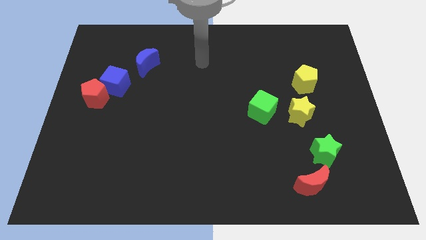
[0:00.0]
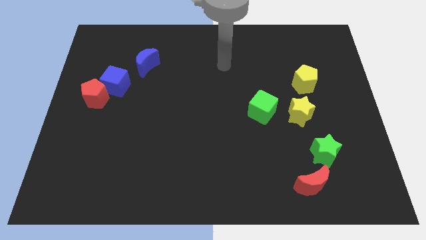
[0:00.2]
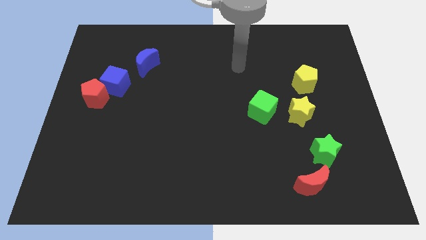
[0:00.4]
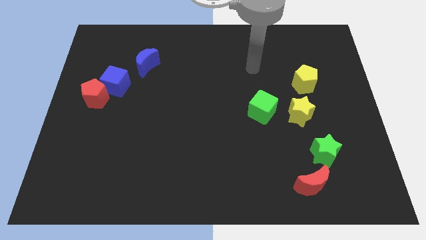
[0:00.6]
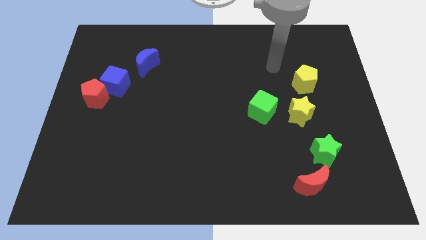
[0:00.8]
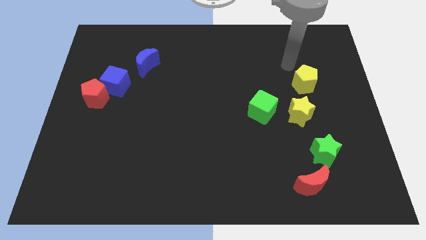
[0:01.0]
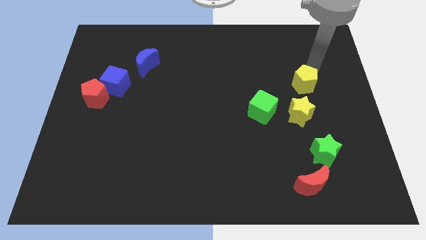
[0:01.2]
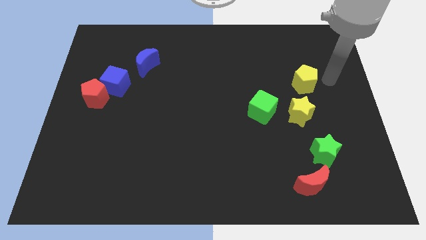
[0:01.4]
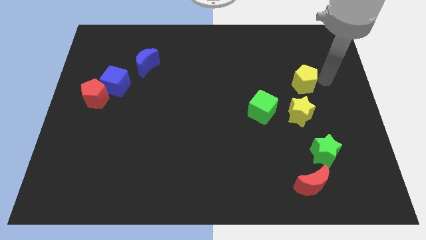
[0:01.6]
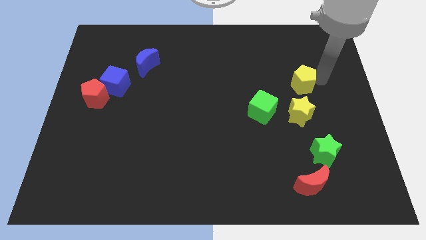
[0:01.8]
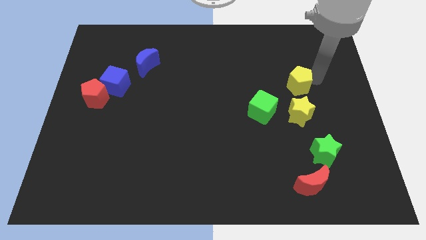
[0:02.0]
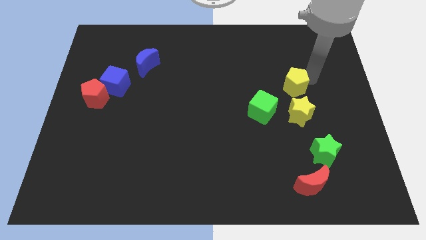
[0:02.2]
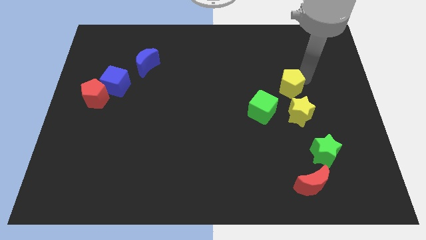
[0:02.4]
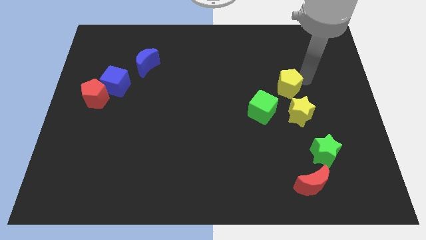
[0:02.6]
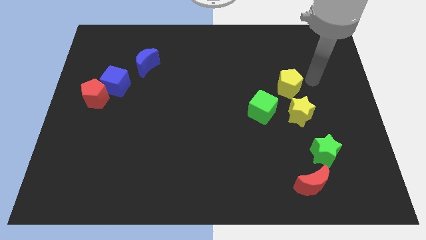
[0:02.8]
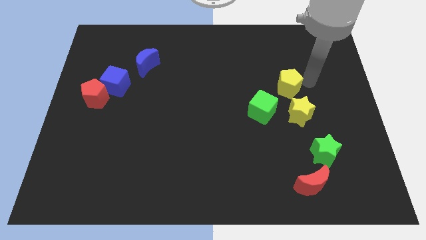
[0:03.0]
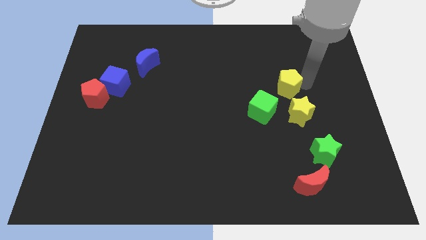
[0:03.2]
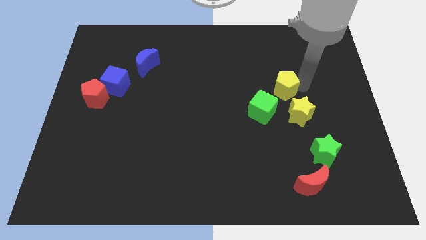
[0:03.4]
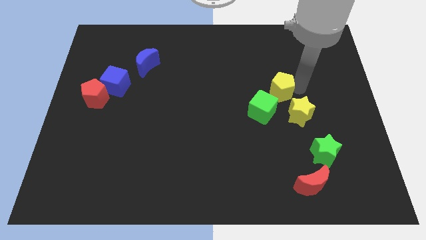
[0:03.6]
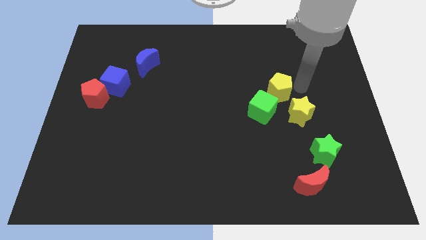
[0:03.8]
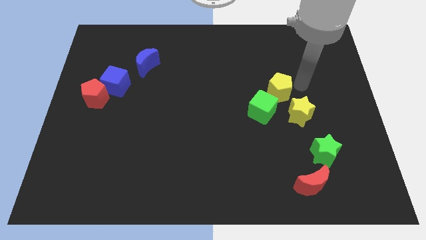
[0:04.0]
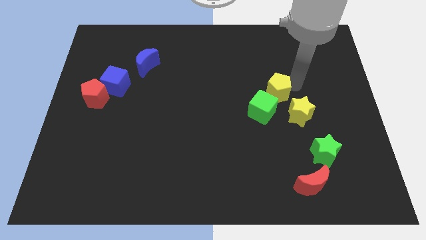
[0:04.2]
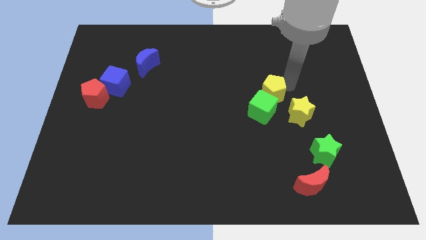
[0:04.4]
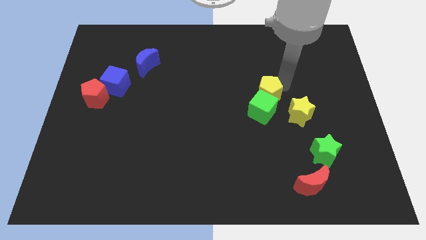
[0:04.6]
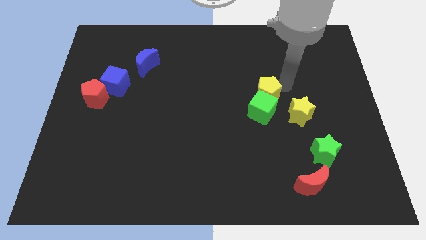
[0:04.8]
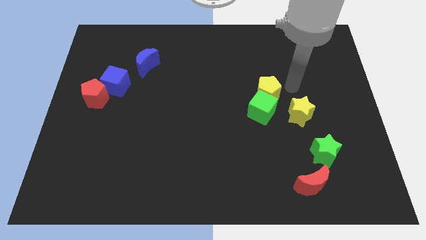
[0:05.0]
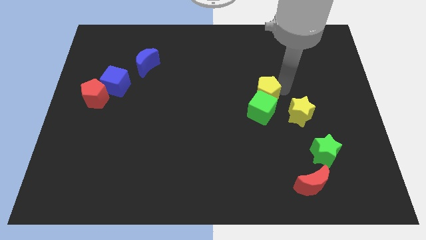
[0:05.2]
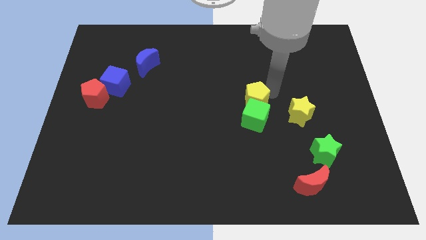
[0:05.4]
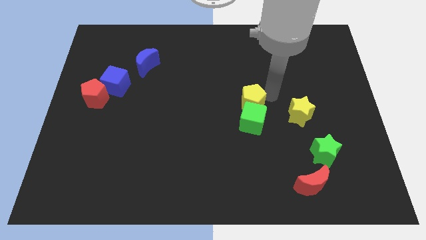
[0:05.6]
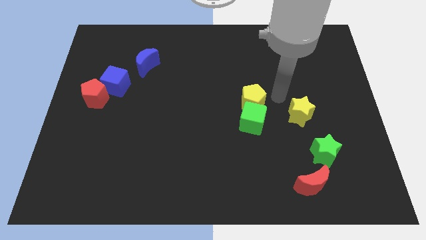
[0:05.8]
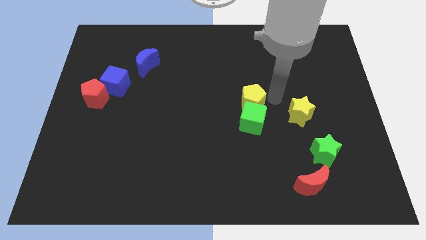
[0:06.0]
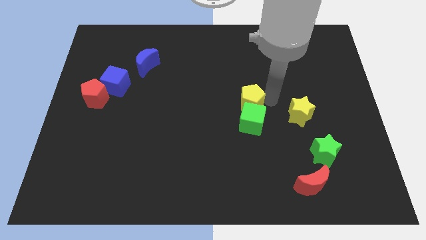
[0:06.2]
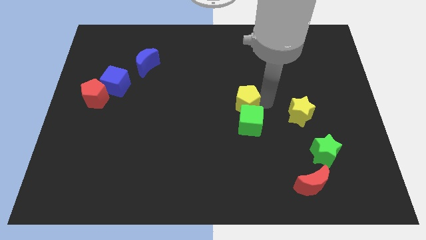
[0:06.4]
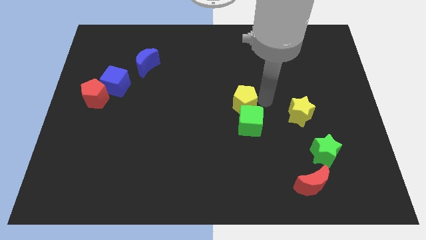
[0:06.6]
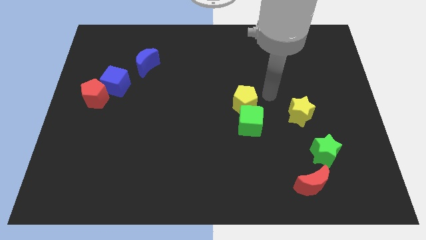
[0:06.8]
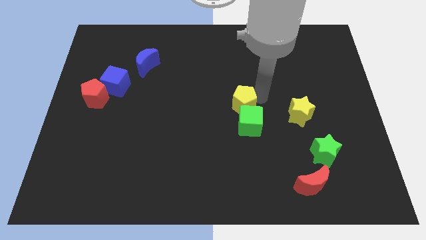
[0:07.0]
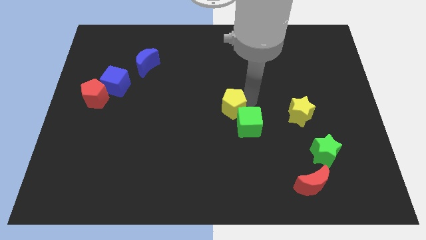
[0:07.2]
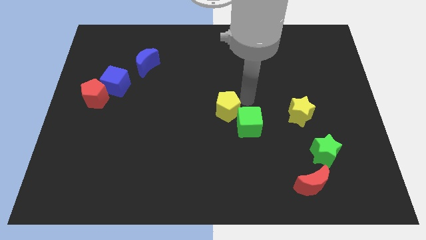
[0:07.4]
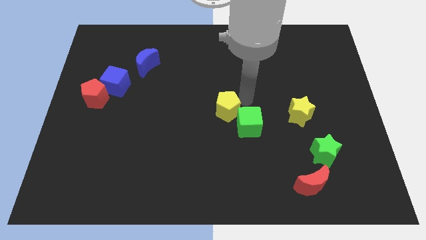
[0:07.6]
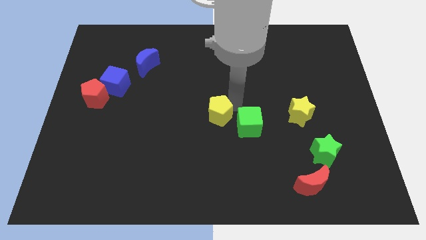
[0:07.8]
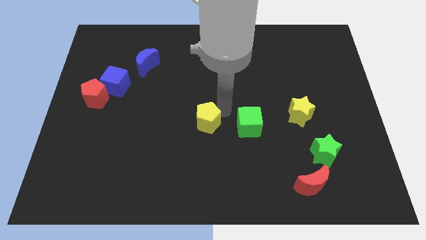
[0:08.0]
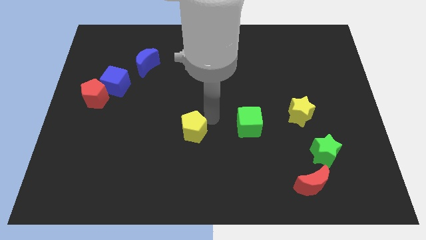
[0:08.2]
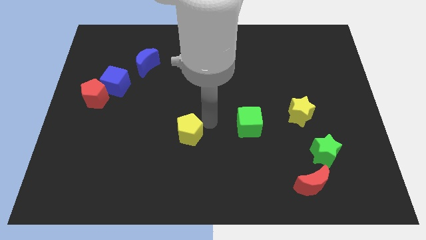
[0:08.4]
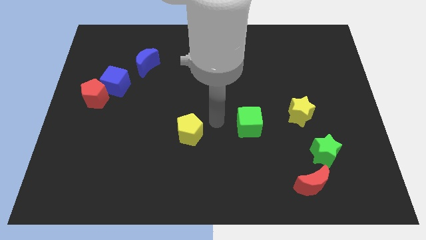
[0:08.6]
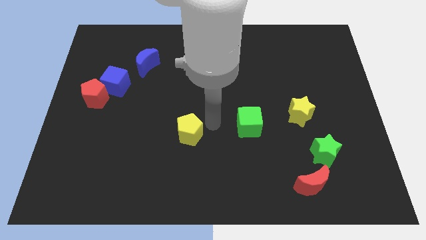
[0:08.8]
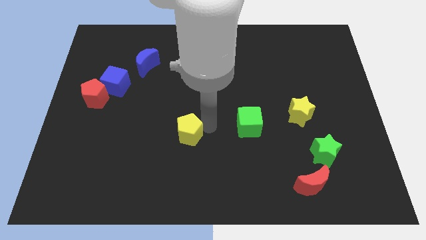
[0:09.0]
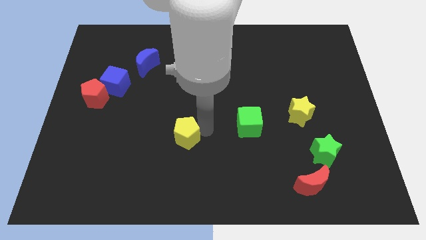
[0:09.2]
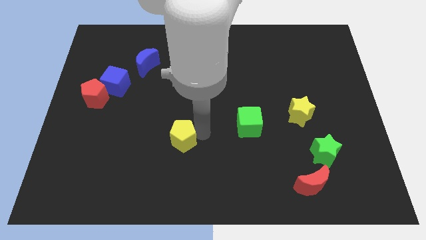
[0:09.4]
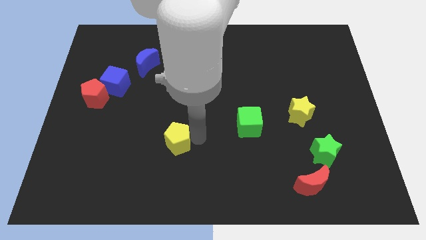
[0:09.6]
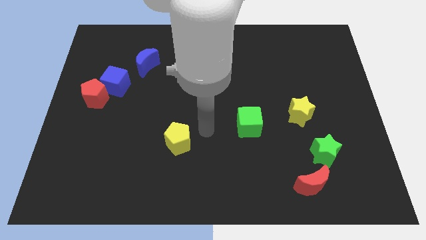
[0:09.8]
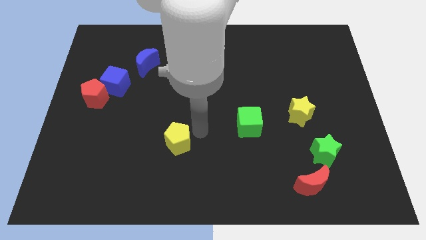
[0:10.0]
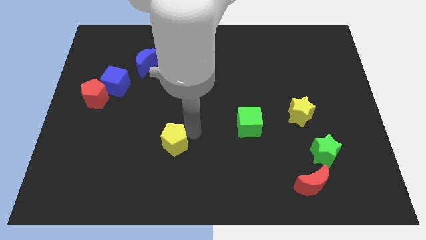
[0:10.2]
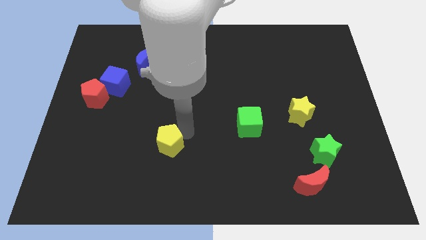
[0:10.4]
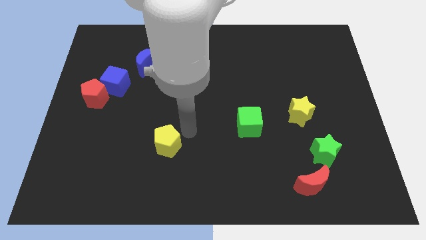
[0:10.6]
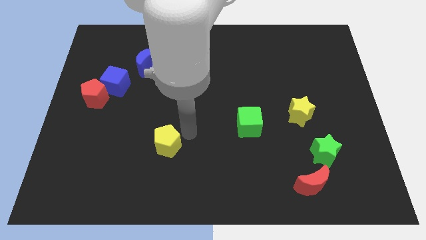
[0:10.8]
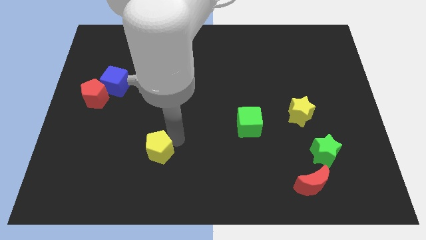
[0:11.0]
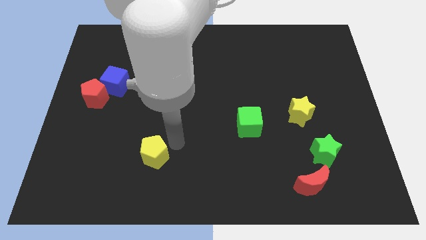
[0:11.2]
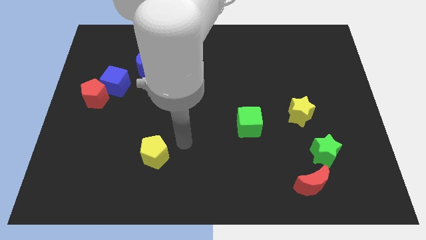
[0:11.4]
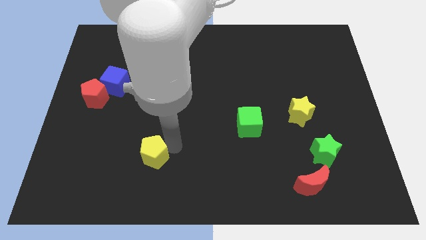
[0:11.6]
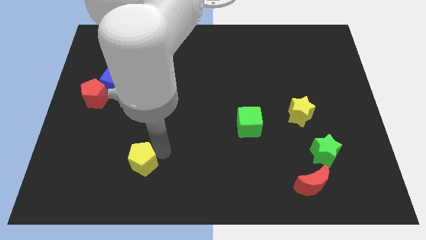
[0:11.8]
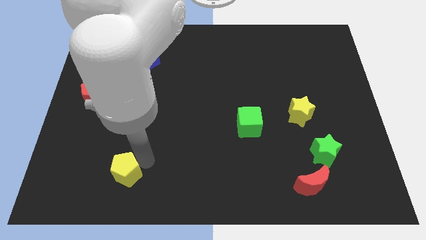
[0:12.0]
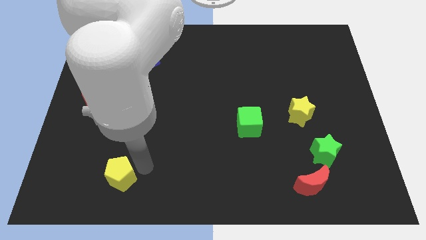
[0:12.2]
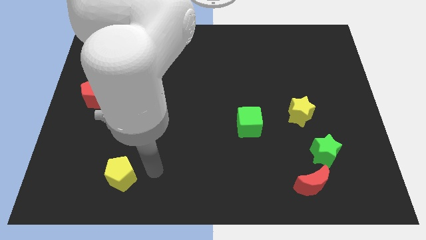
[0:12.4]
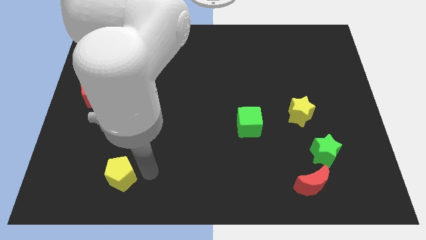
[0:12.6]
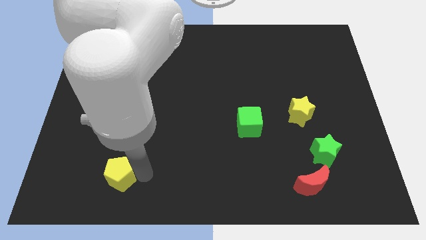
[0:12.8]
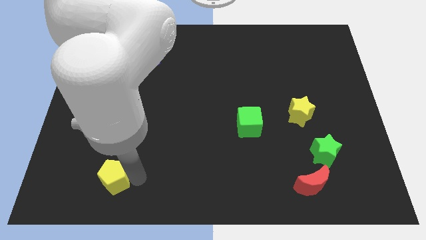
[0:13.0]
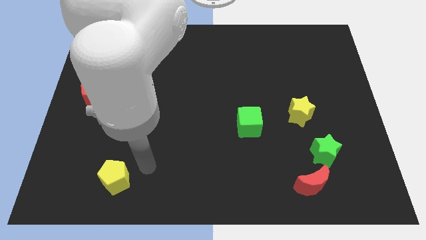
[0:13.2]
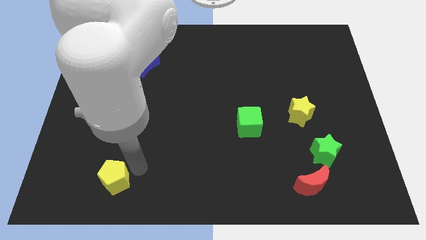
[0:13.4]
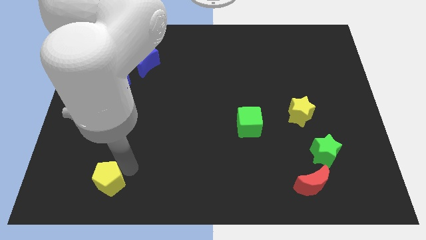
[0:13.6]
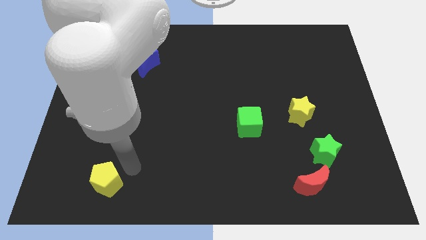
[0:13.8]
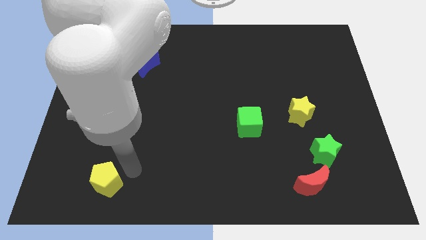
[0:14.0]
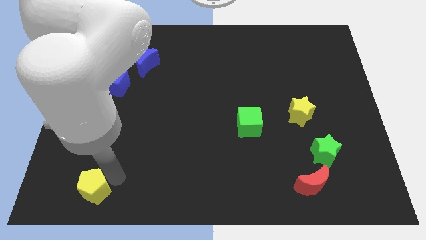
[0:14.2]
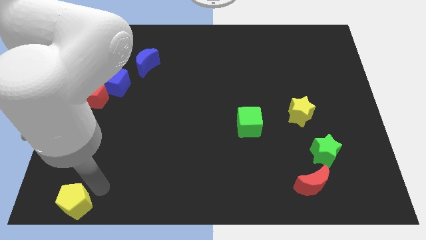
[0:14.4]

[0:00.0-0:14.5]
move the yellow pentagon to the bottom left corner
